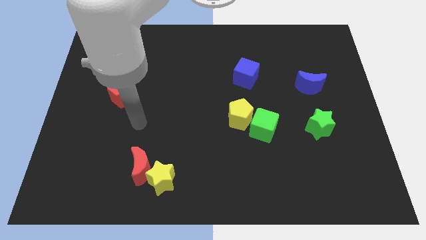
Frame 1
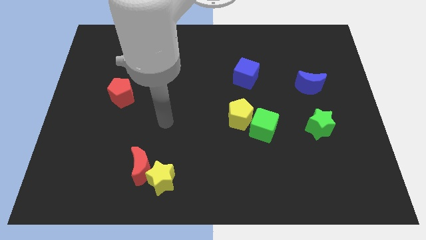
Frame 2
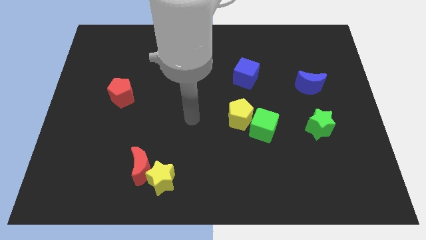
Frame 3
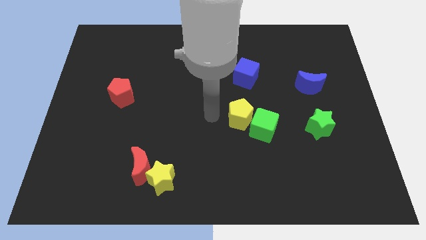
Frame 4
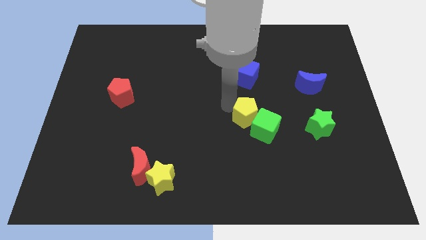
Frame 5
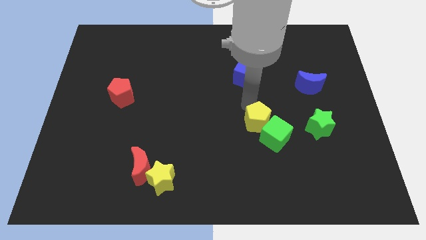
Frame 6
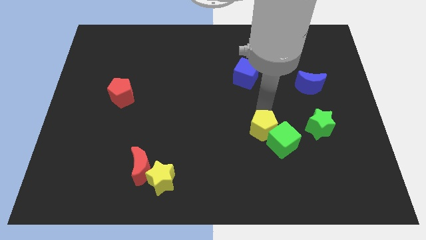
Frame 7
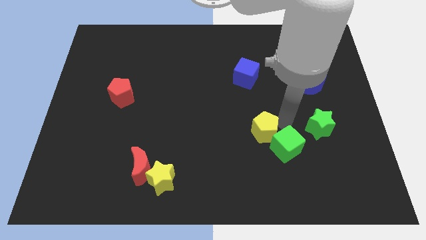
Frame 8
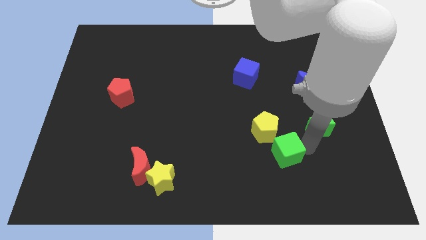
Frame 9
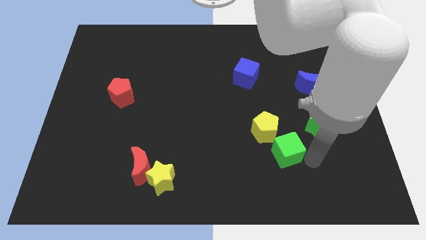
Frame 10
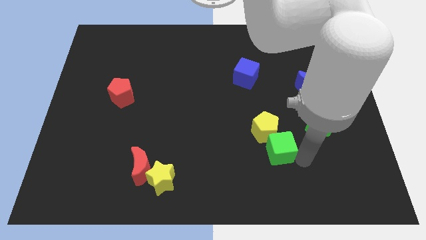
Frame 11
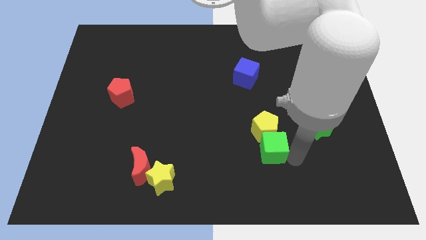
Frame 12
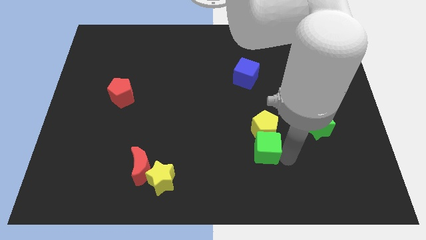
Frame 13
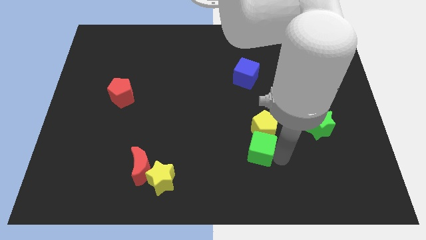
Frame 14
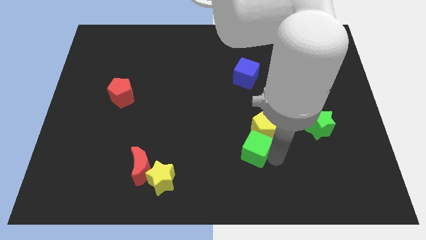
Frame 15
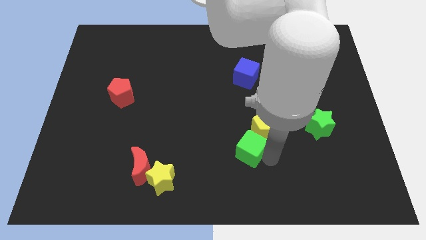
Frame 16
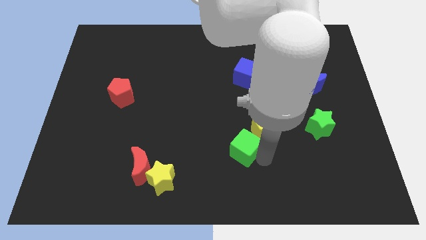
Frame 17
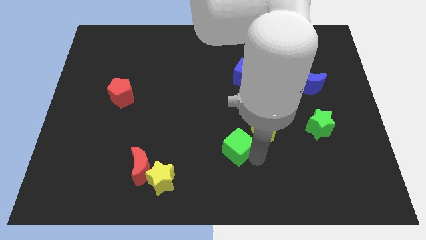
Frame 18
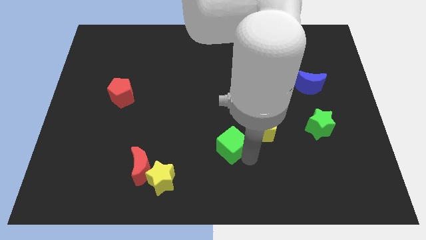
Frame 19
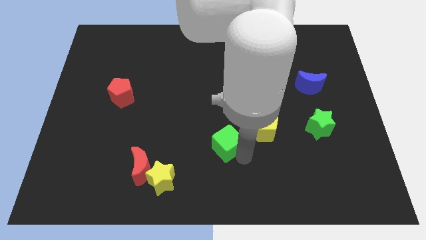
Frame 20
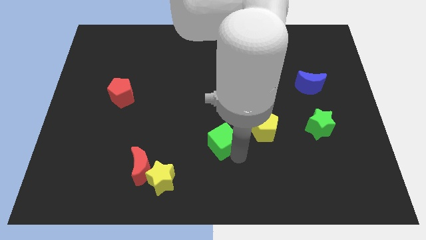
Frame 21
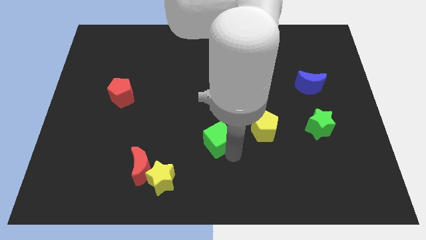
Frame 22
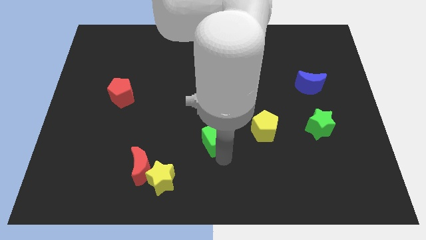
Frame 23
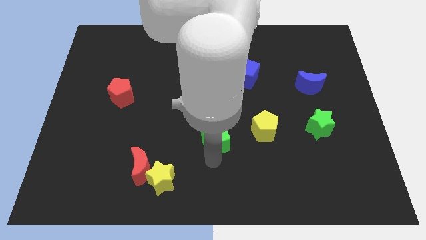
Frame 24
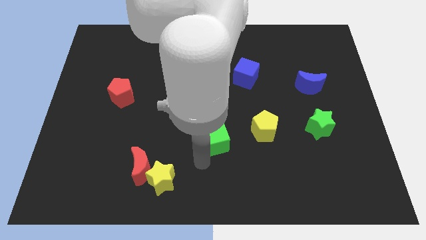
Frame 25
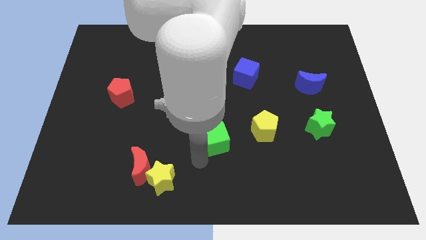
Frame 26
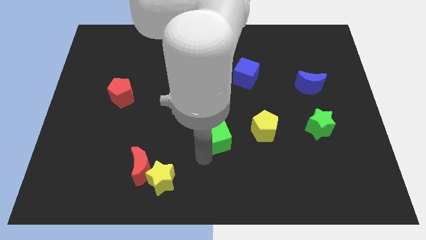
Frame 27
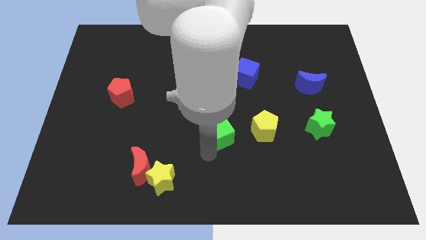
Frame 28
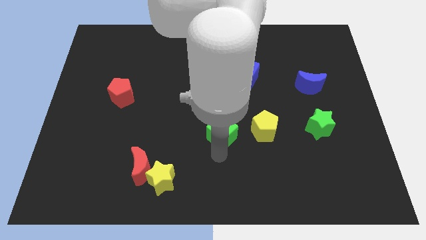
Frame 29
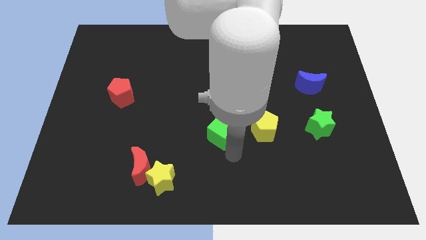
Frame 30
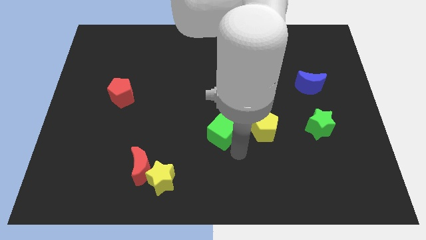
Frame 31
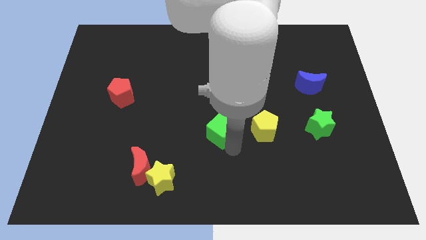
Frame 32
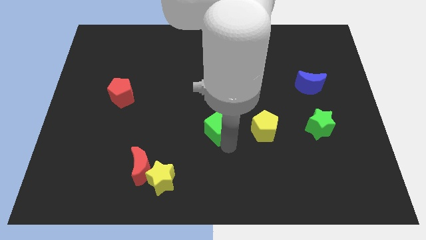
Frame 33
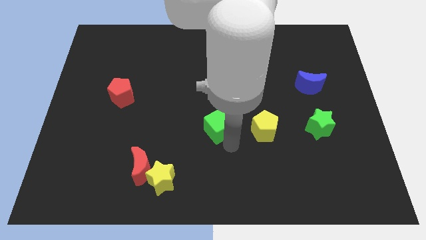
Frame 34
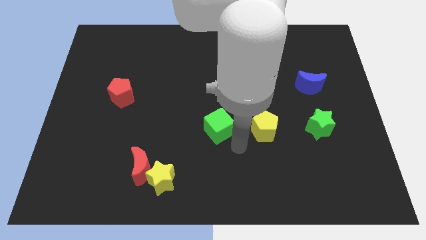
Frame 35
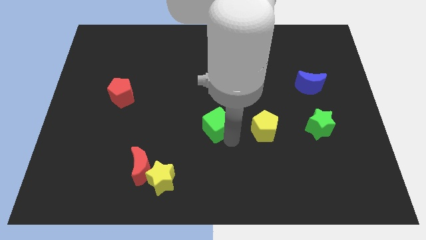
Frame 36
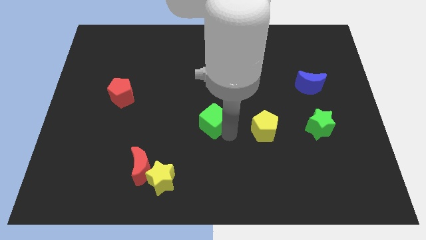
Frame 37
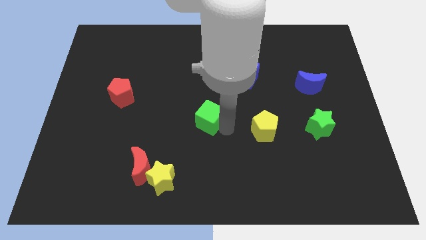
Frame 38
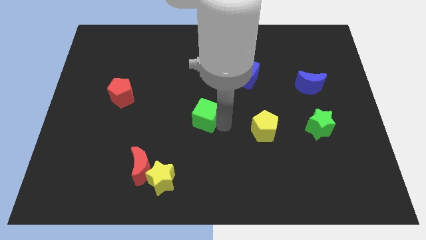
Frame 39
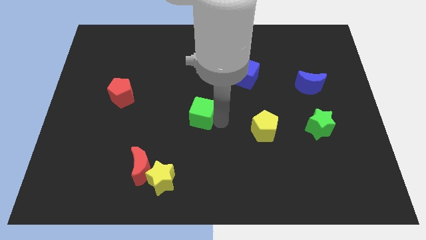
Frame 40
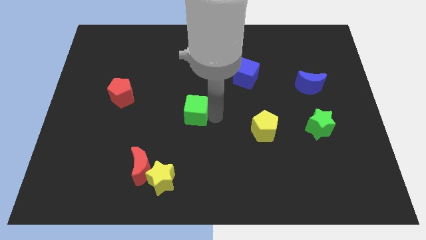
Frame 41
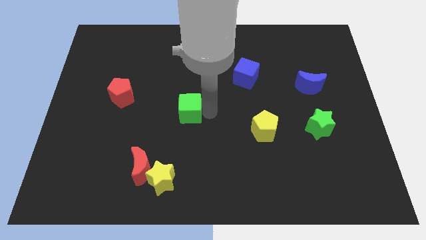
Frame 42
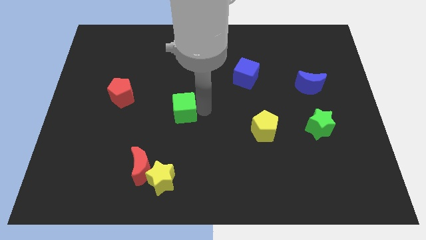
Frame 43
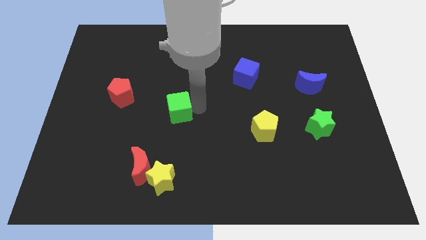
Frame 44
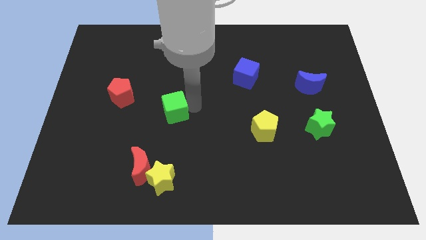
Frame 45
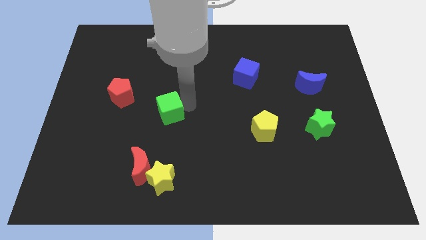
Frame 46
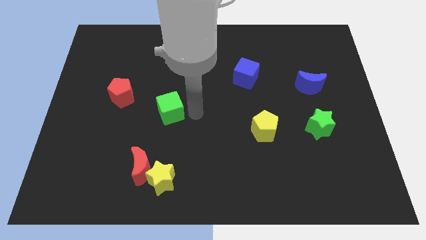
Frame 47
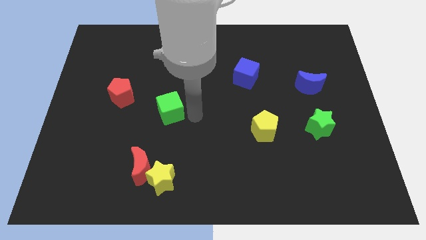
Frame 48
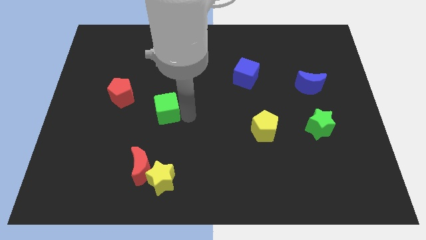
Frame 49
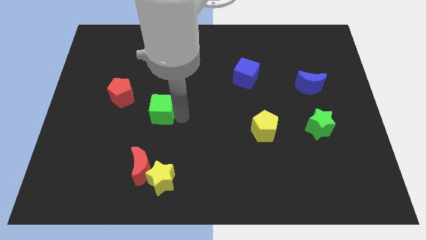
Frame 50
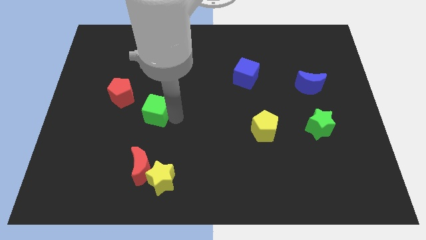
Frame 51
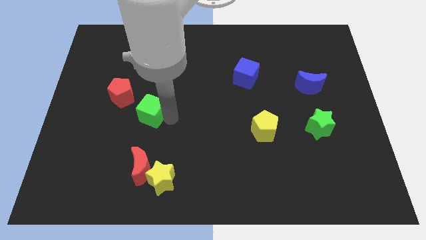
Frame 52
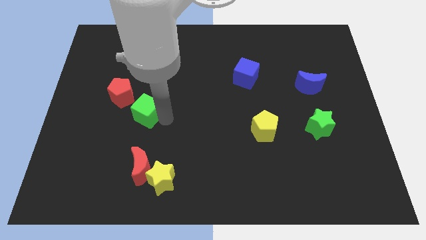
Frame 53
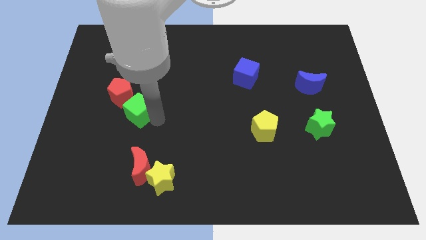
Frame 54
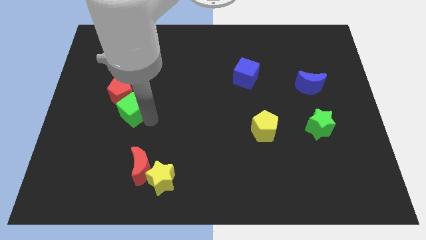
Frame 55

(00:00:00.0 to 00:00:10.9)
push the green cube towards the red pentagon

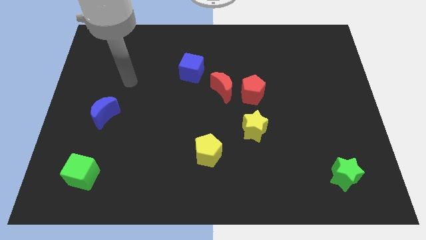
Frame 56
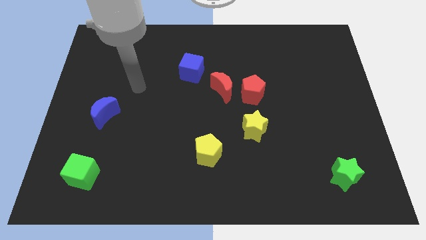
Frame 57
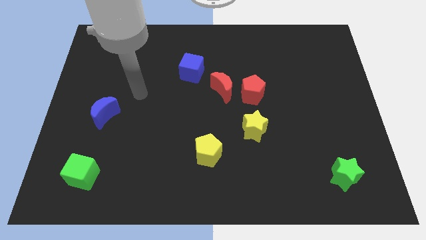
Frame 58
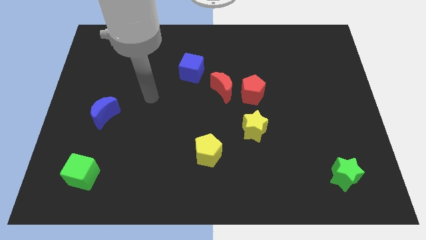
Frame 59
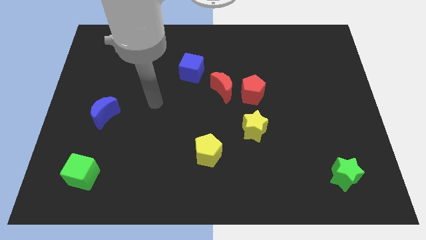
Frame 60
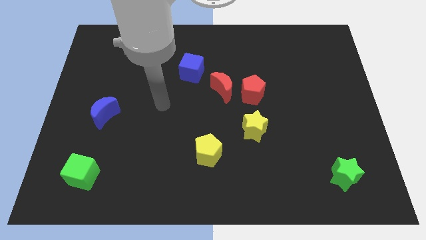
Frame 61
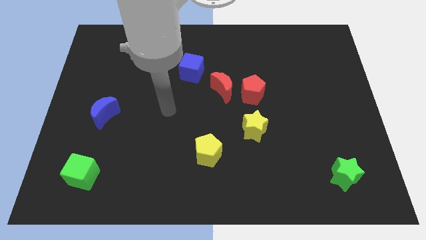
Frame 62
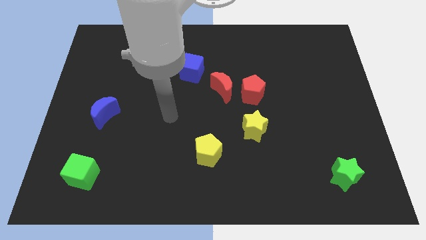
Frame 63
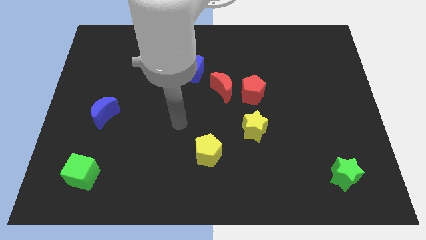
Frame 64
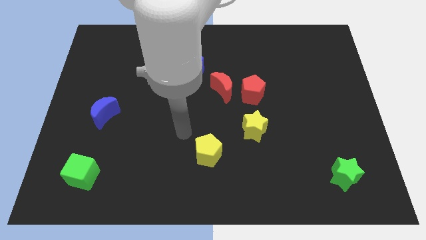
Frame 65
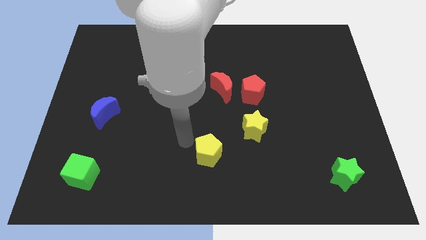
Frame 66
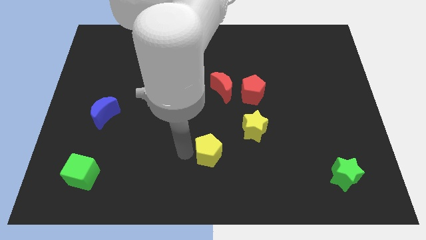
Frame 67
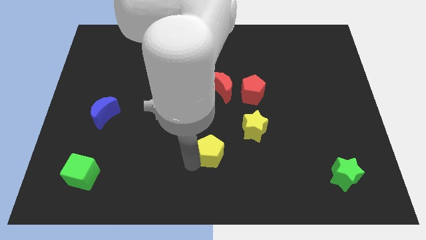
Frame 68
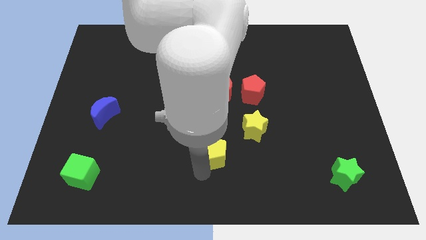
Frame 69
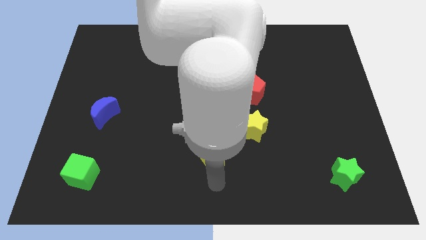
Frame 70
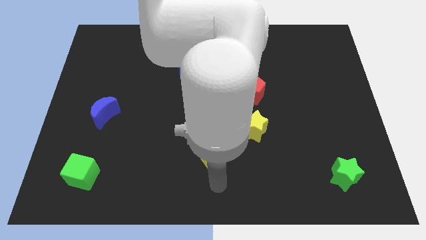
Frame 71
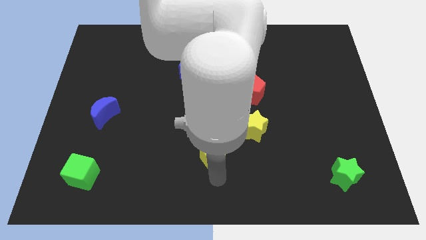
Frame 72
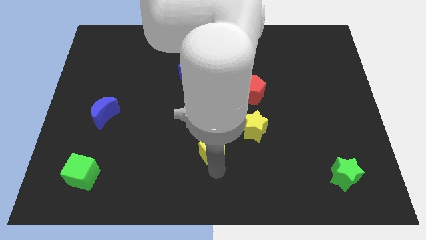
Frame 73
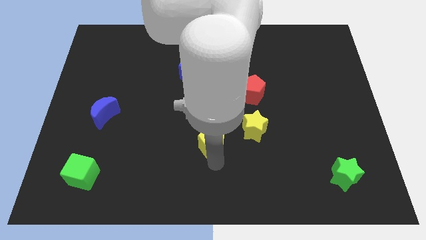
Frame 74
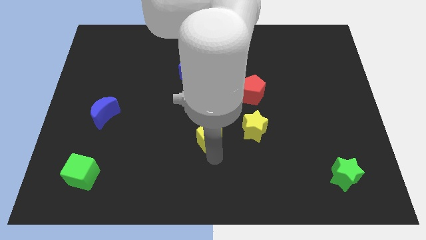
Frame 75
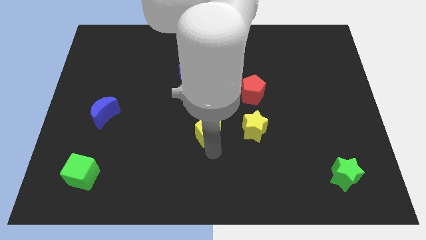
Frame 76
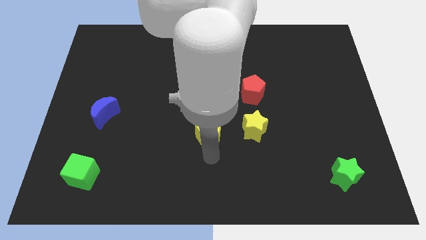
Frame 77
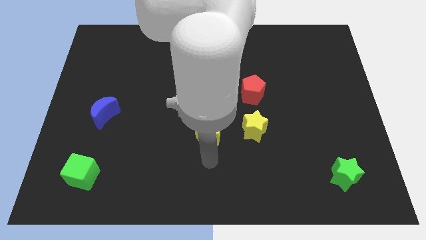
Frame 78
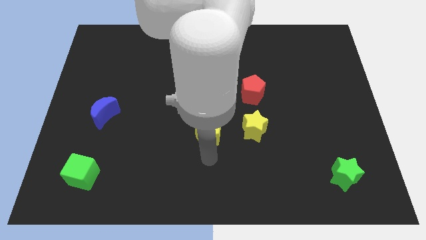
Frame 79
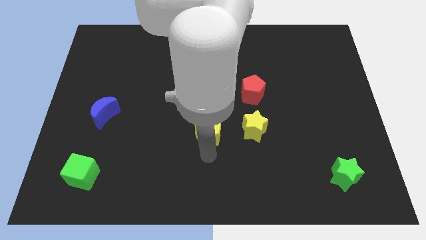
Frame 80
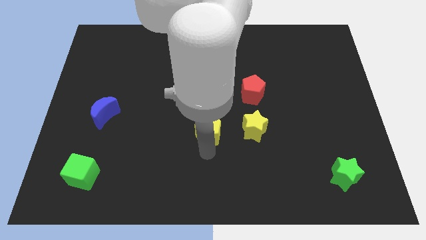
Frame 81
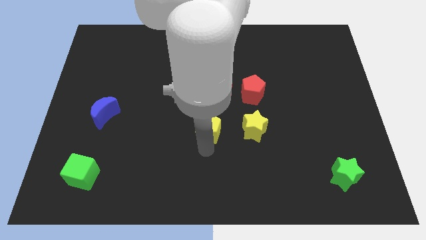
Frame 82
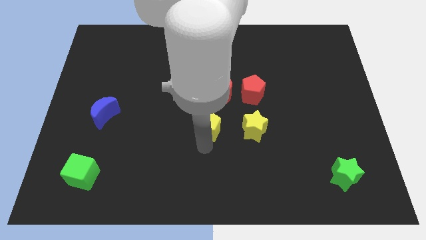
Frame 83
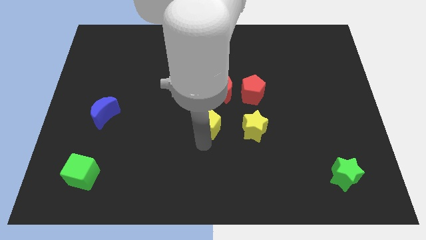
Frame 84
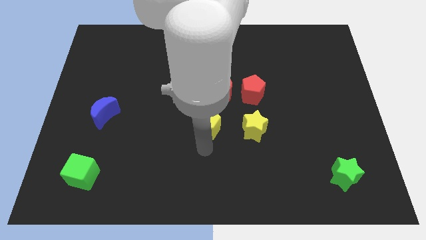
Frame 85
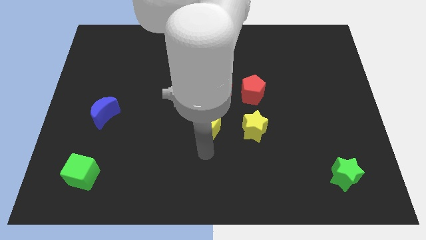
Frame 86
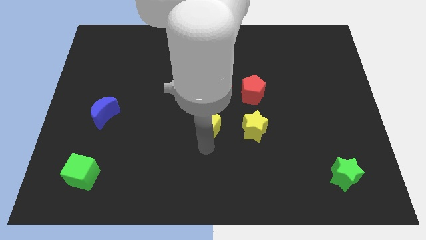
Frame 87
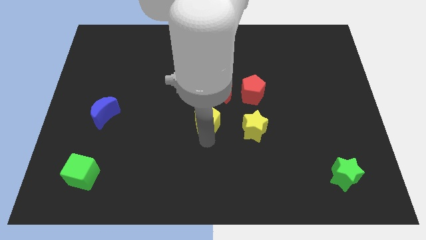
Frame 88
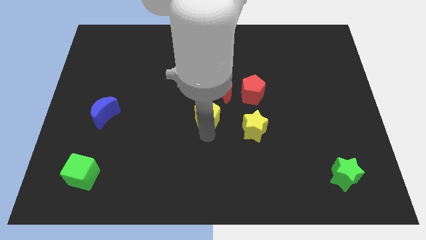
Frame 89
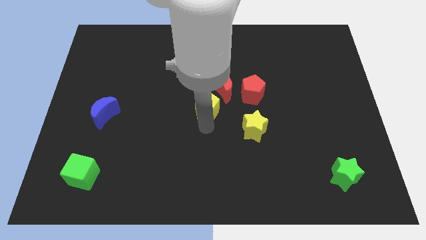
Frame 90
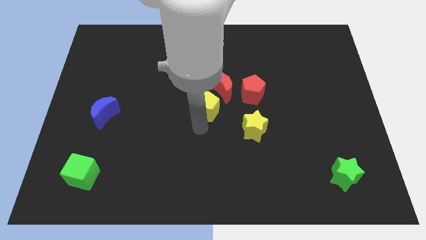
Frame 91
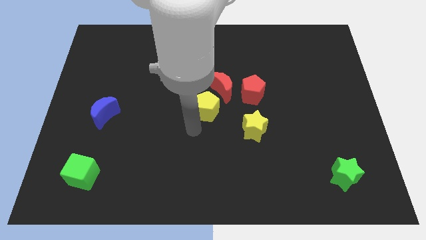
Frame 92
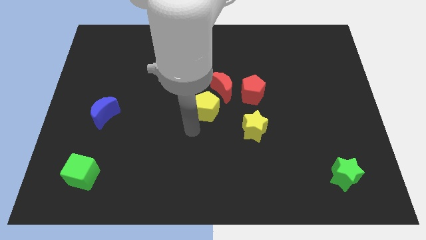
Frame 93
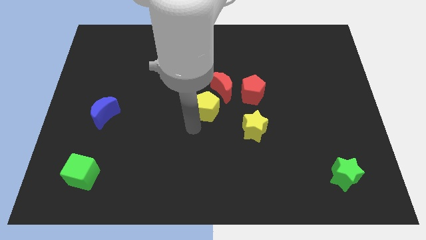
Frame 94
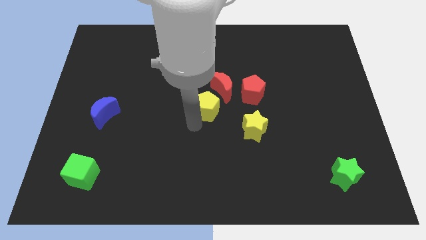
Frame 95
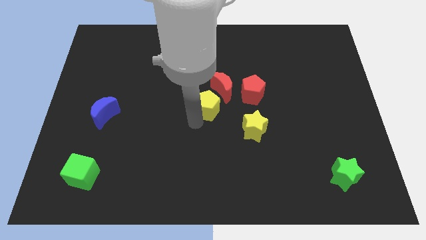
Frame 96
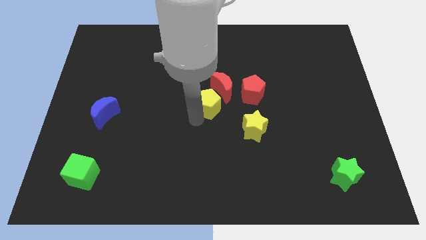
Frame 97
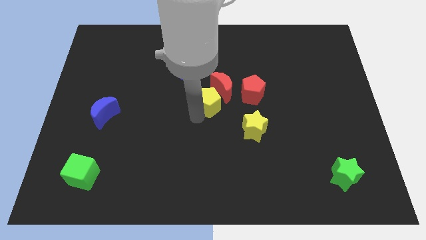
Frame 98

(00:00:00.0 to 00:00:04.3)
put the yellow pentagon towards the red moon
